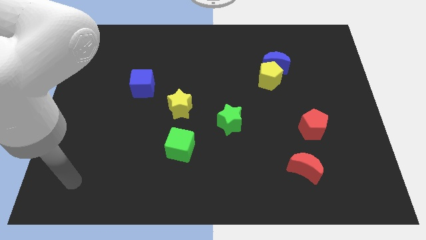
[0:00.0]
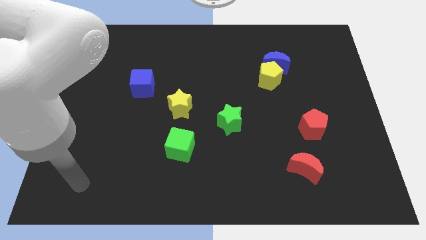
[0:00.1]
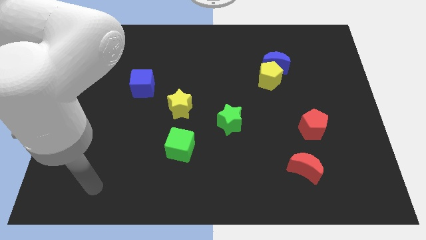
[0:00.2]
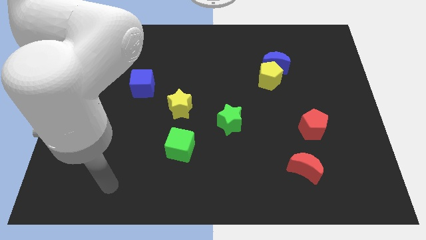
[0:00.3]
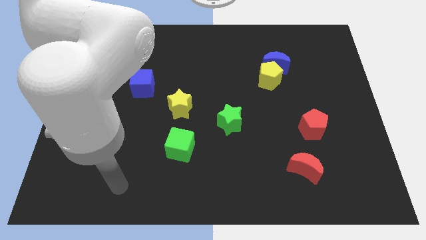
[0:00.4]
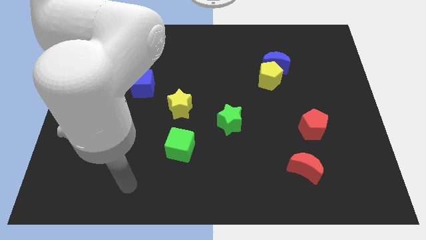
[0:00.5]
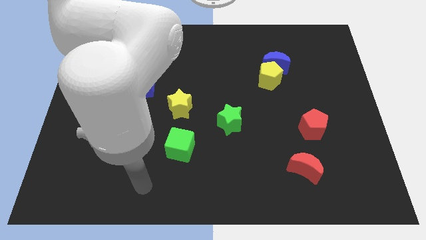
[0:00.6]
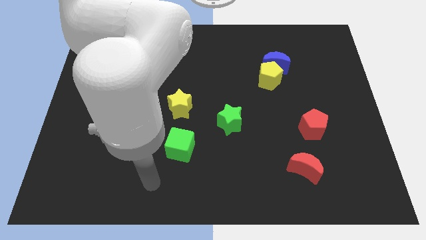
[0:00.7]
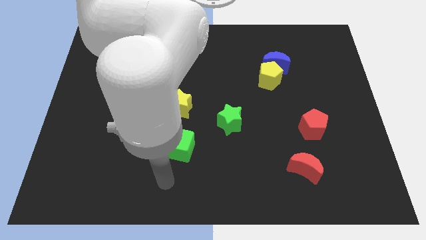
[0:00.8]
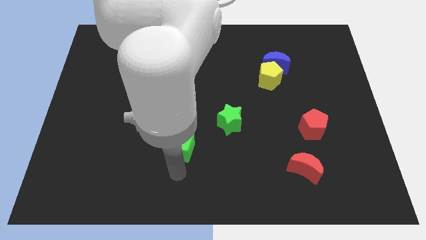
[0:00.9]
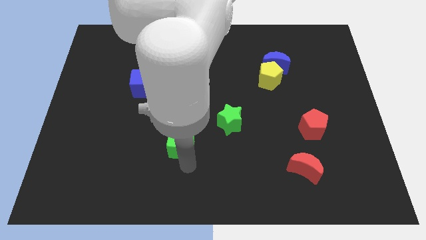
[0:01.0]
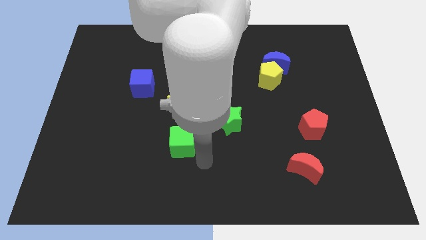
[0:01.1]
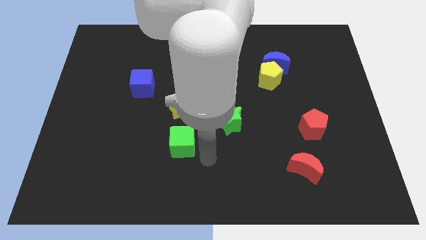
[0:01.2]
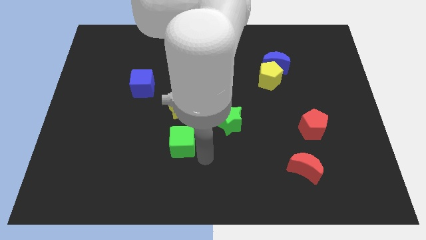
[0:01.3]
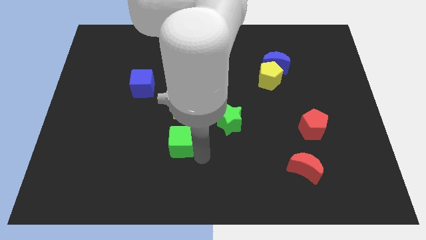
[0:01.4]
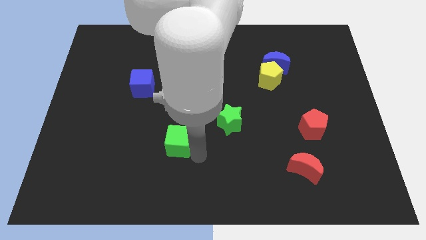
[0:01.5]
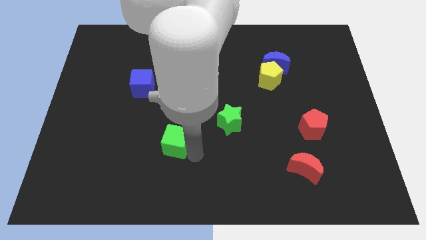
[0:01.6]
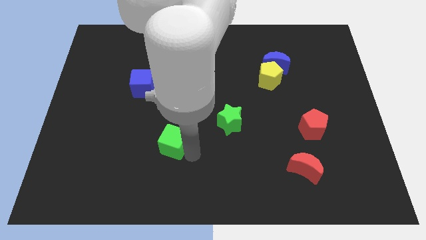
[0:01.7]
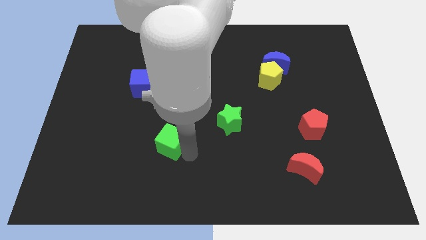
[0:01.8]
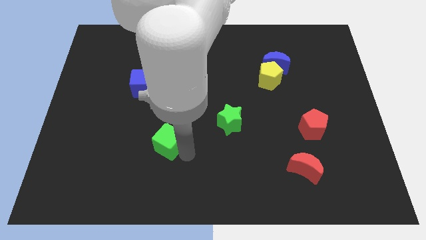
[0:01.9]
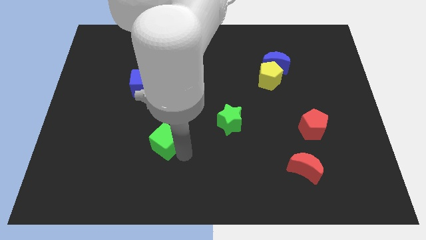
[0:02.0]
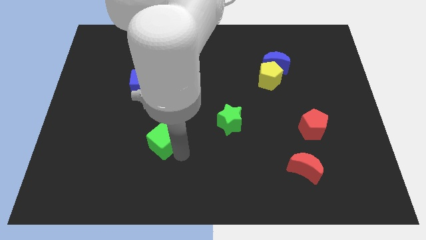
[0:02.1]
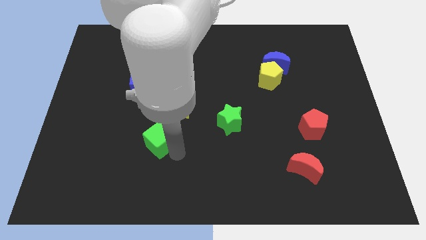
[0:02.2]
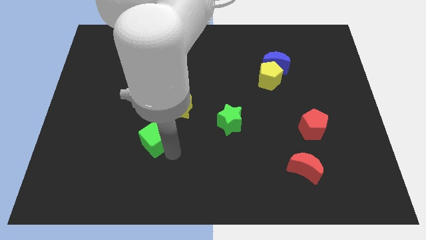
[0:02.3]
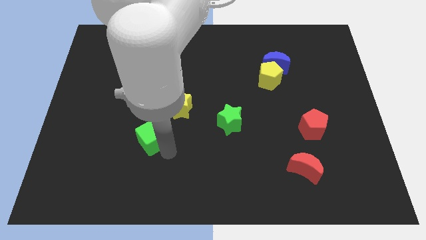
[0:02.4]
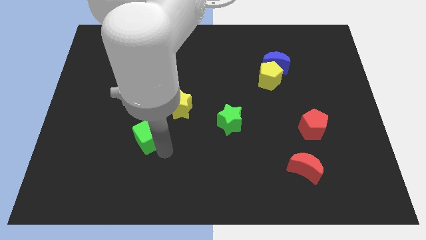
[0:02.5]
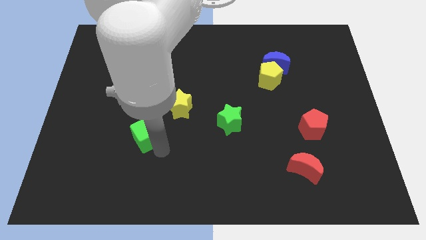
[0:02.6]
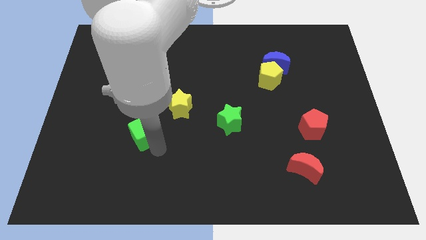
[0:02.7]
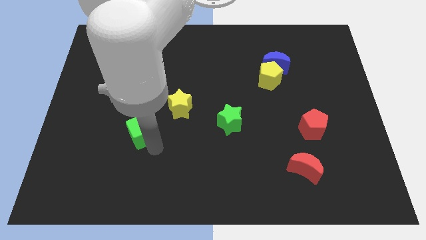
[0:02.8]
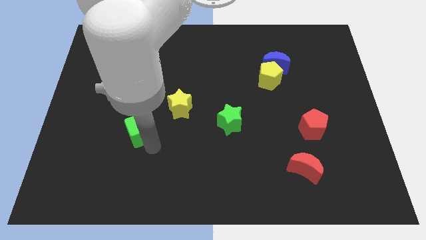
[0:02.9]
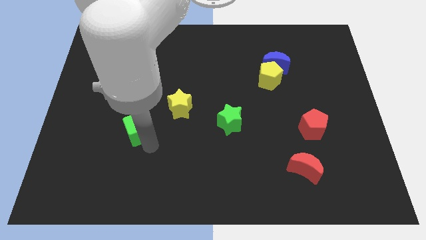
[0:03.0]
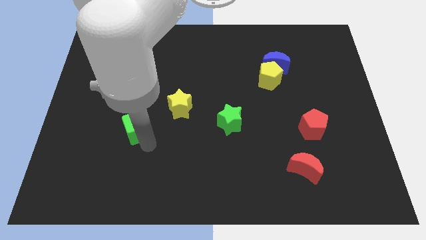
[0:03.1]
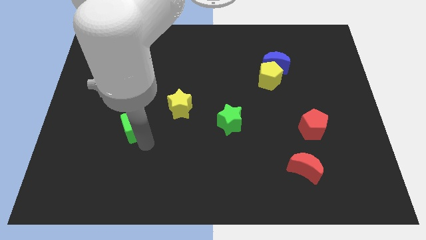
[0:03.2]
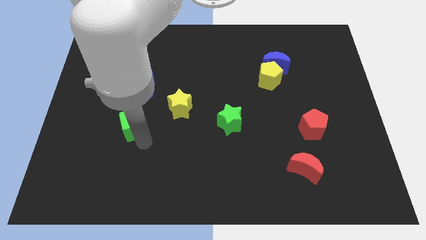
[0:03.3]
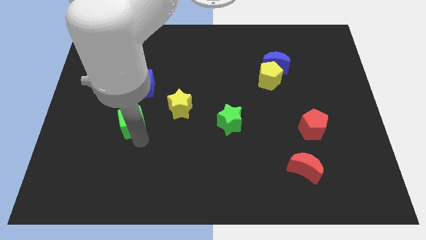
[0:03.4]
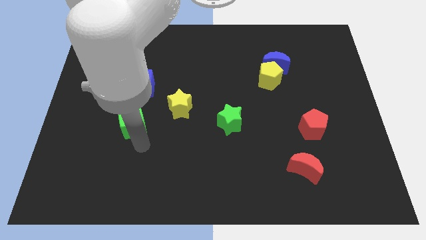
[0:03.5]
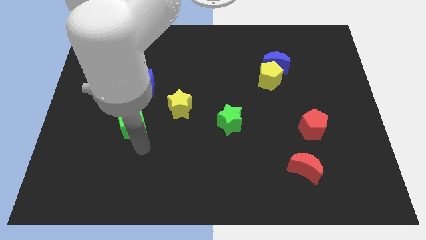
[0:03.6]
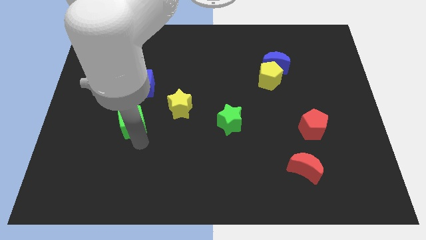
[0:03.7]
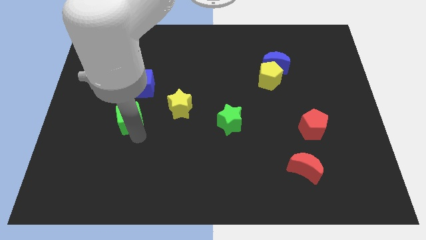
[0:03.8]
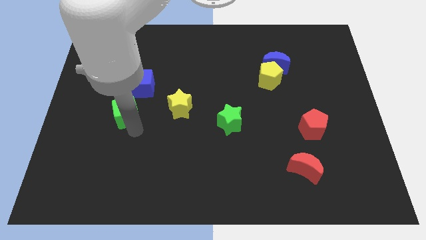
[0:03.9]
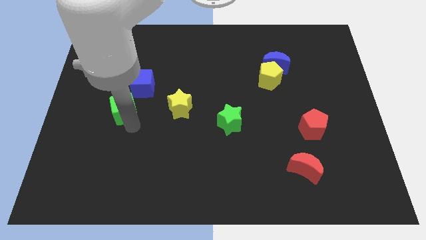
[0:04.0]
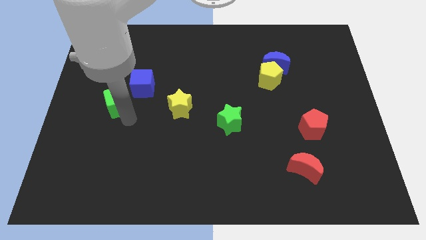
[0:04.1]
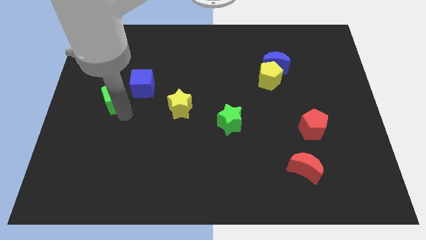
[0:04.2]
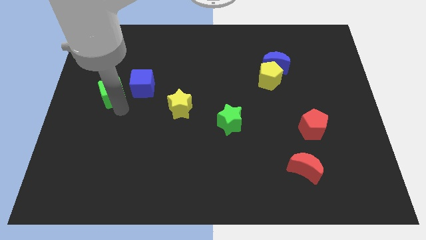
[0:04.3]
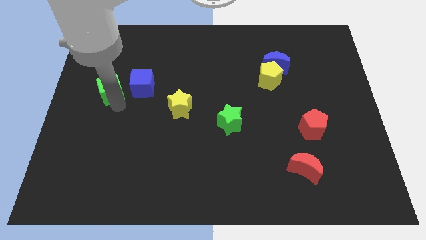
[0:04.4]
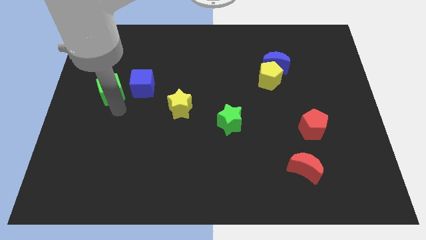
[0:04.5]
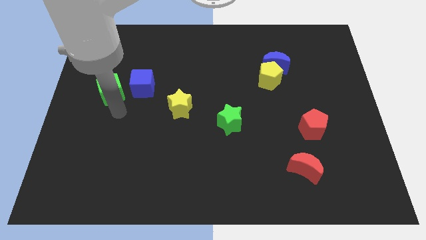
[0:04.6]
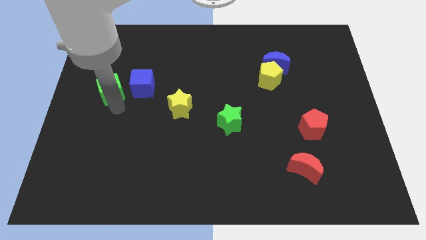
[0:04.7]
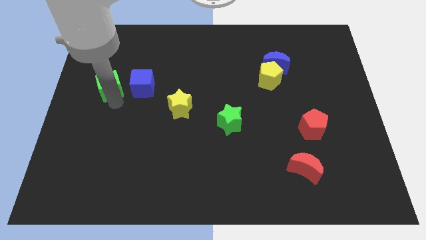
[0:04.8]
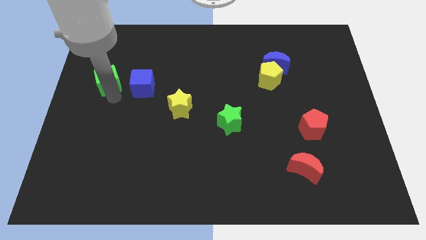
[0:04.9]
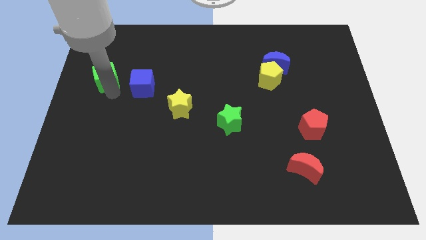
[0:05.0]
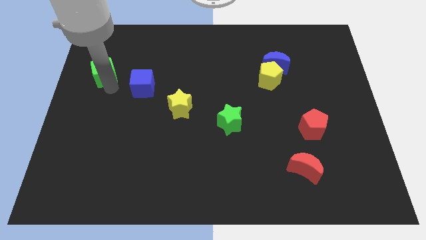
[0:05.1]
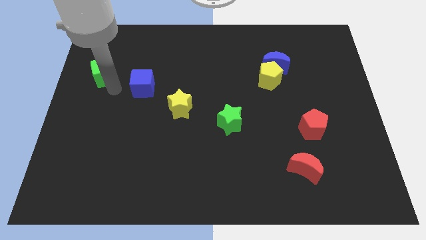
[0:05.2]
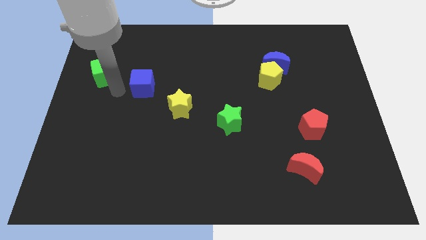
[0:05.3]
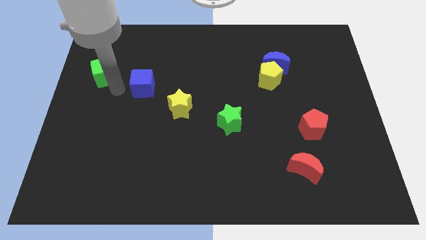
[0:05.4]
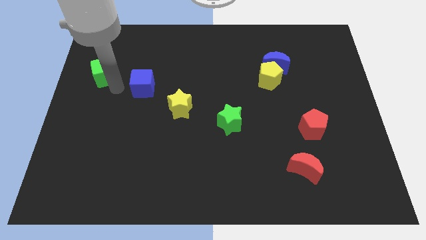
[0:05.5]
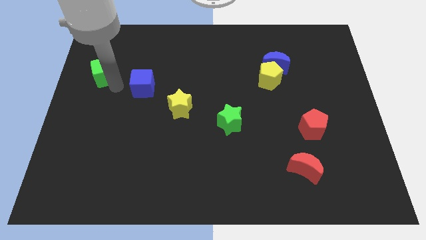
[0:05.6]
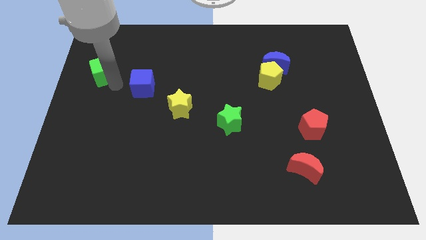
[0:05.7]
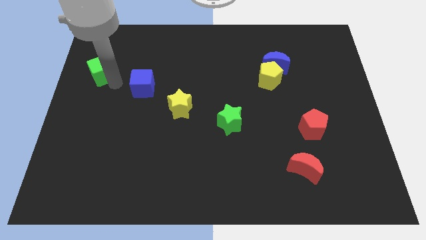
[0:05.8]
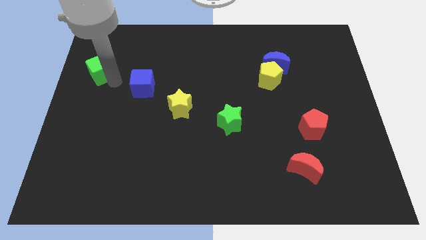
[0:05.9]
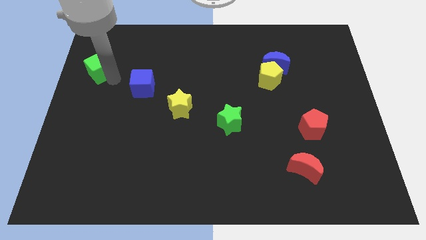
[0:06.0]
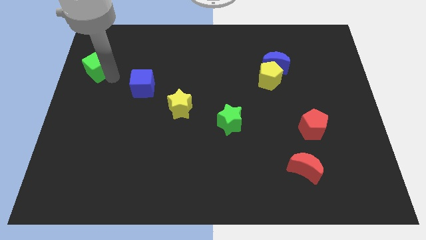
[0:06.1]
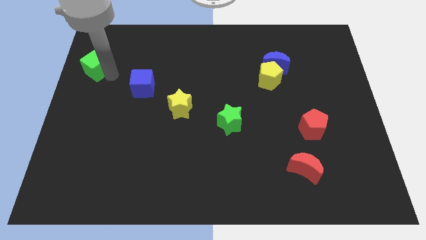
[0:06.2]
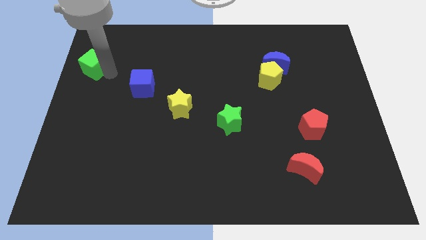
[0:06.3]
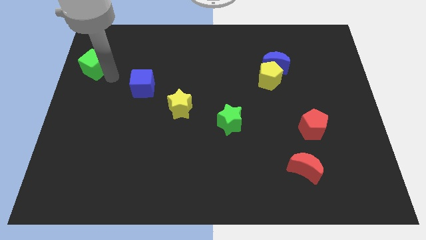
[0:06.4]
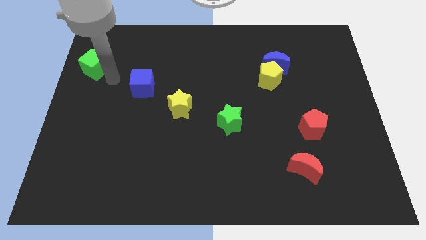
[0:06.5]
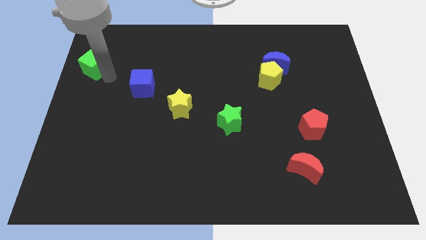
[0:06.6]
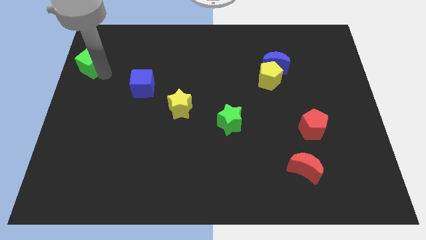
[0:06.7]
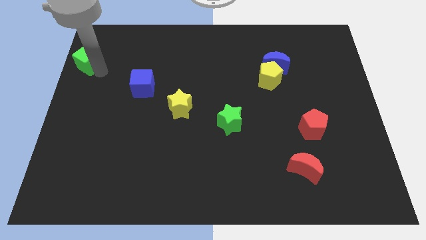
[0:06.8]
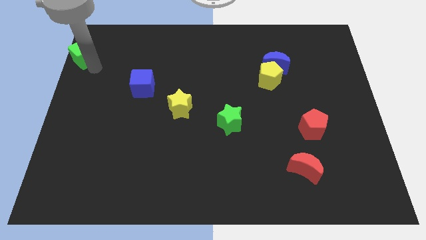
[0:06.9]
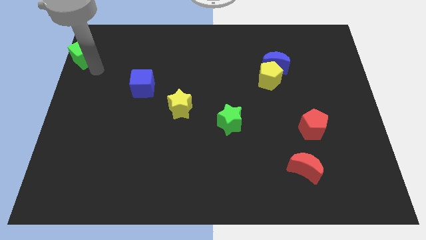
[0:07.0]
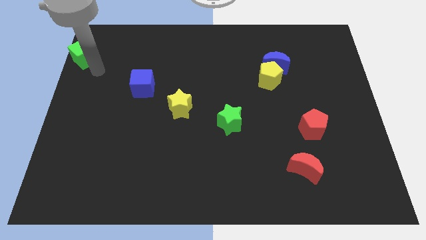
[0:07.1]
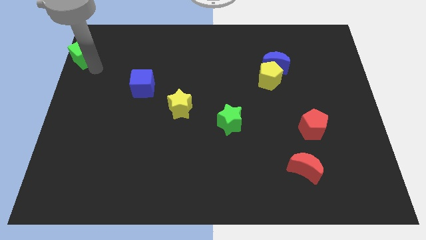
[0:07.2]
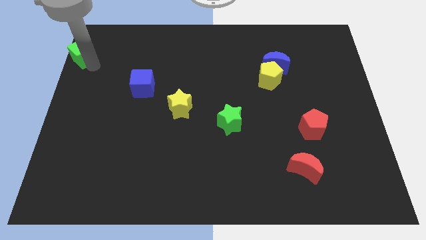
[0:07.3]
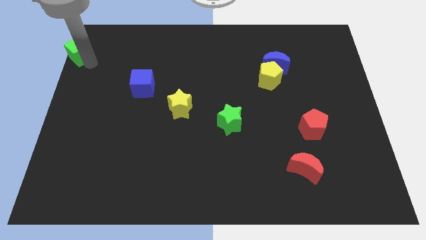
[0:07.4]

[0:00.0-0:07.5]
put the green cube to the top left of the board
